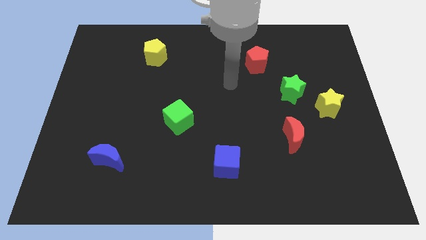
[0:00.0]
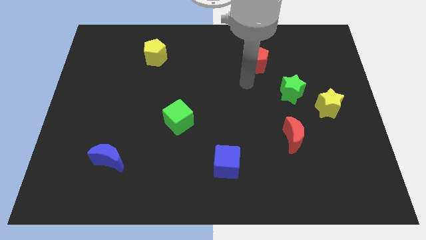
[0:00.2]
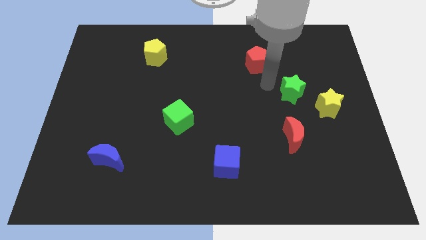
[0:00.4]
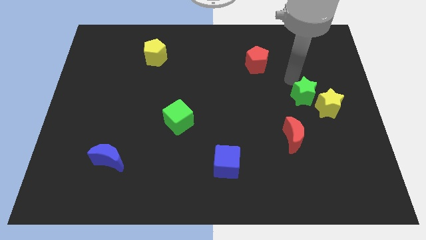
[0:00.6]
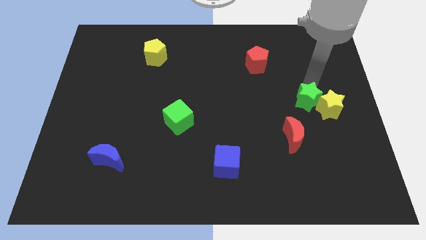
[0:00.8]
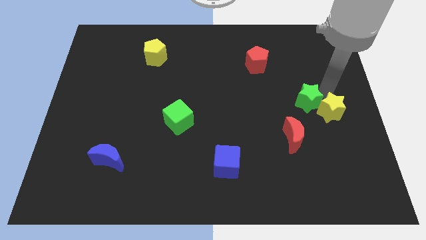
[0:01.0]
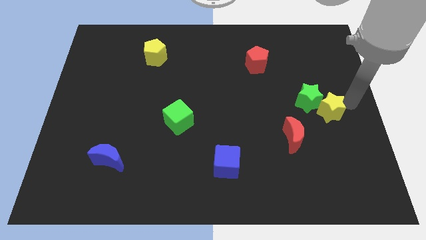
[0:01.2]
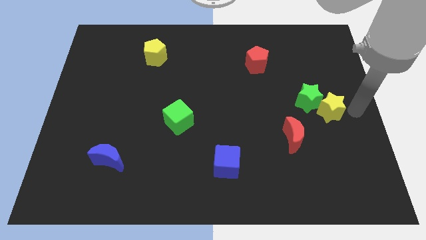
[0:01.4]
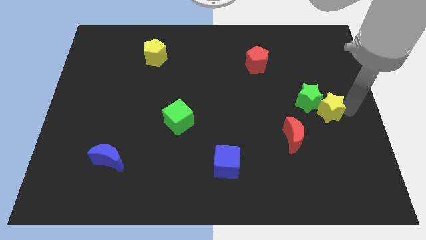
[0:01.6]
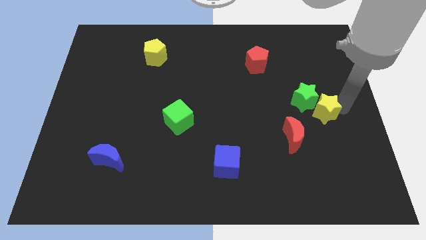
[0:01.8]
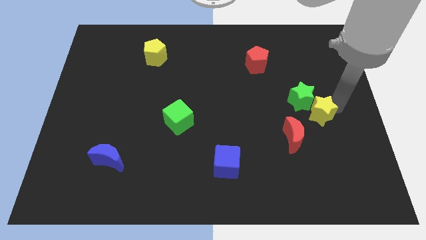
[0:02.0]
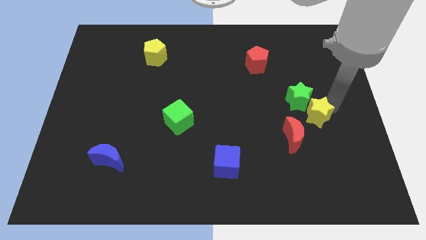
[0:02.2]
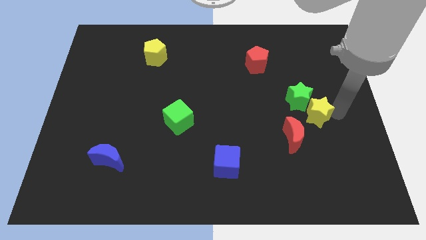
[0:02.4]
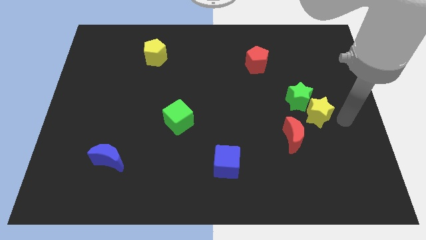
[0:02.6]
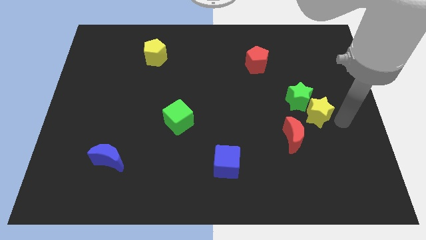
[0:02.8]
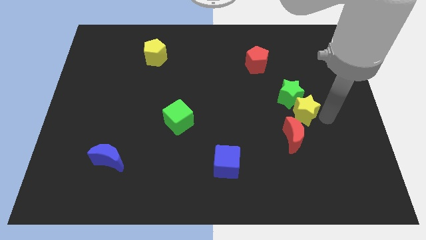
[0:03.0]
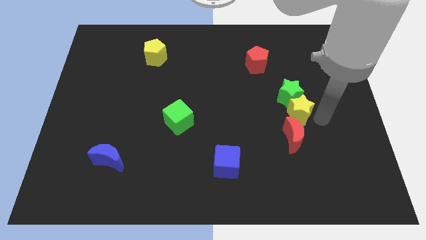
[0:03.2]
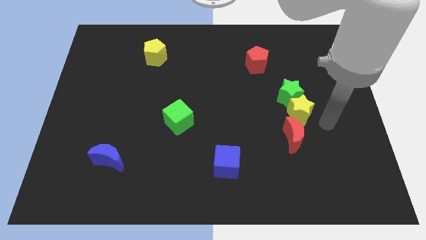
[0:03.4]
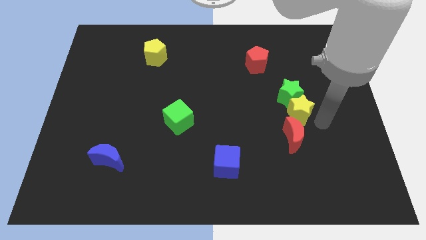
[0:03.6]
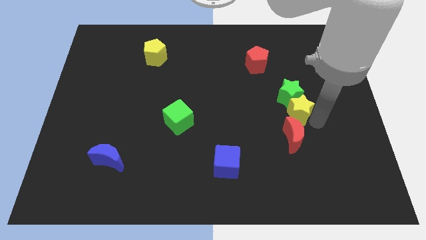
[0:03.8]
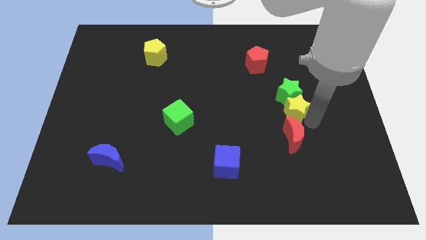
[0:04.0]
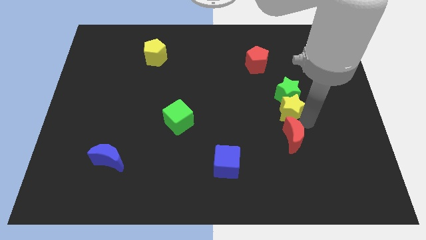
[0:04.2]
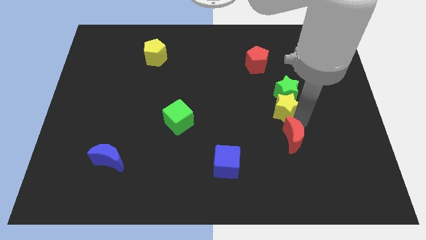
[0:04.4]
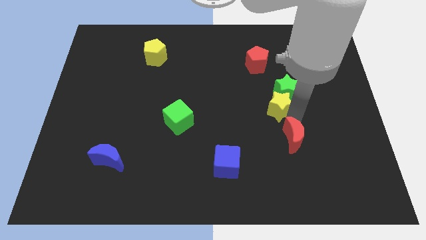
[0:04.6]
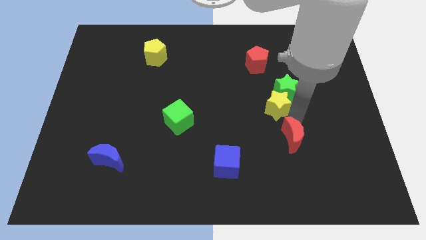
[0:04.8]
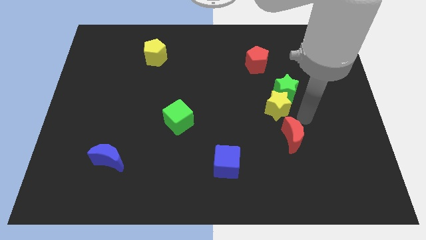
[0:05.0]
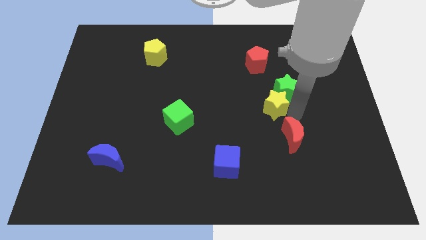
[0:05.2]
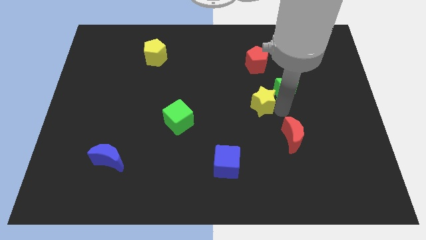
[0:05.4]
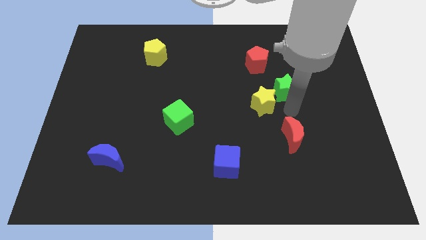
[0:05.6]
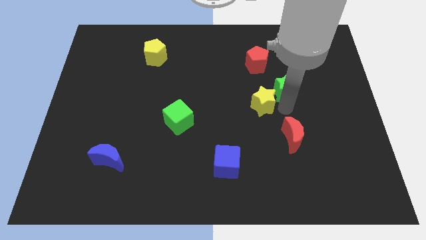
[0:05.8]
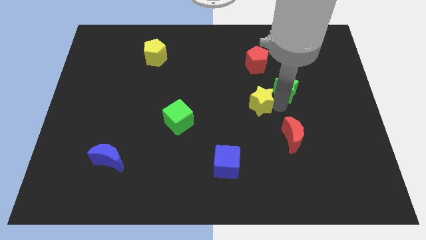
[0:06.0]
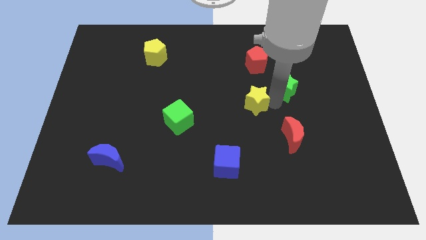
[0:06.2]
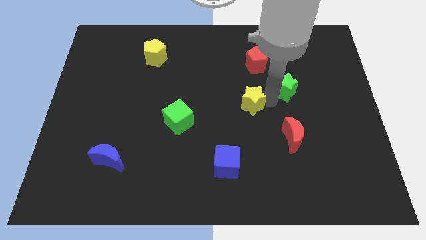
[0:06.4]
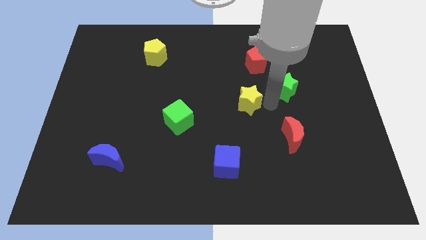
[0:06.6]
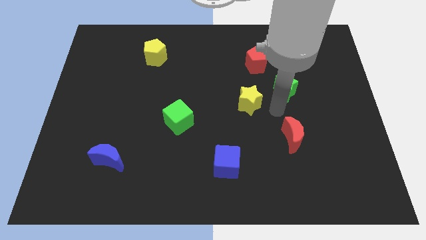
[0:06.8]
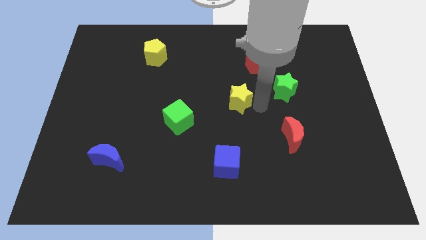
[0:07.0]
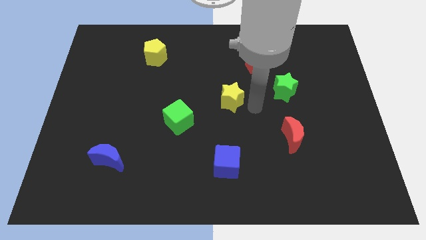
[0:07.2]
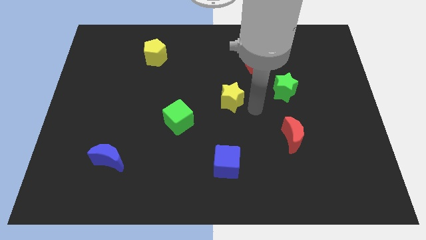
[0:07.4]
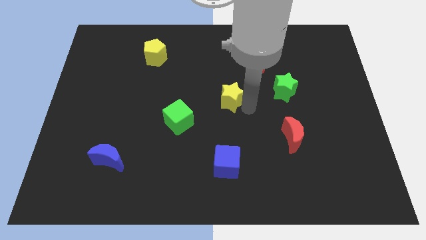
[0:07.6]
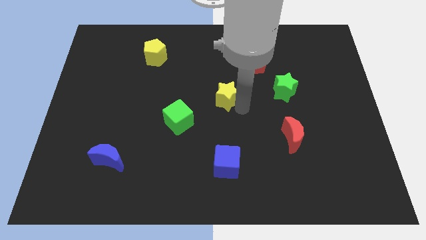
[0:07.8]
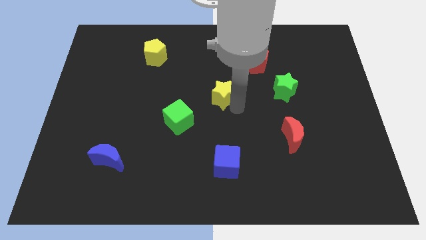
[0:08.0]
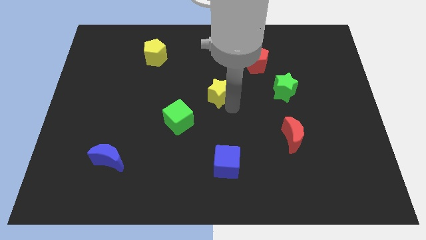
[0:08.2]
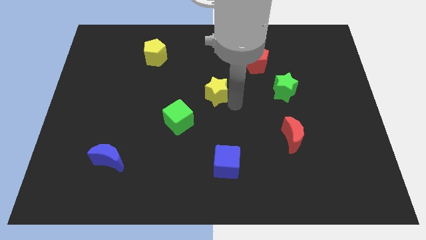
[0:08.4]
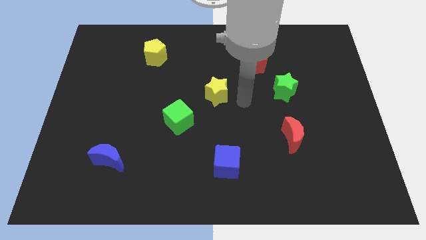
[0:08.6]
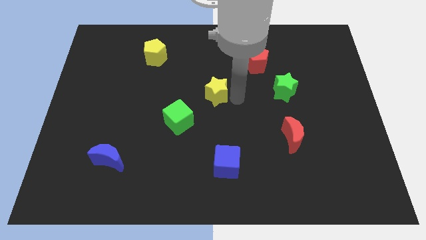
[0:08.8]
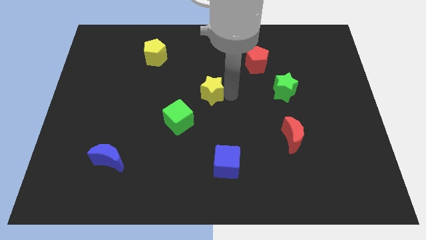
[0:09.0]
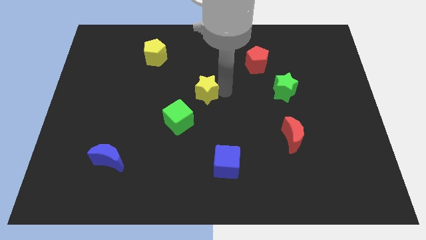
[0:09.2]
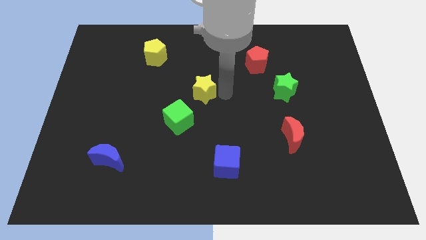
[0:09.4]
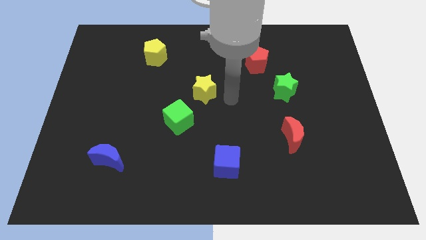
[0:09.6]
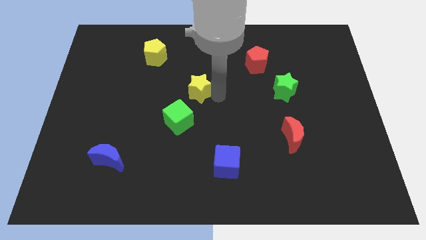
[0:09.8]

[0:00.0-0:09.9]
slide the yellow star to the top of the green cube

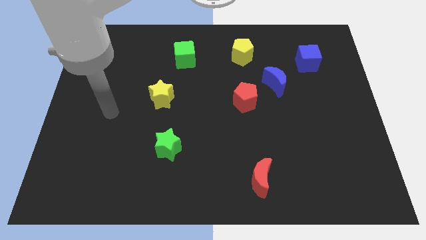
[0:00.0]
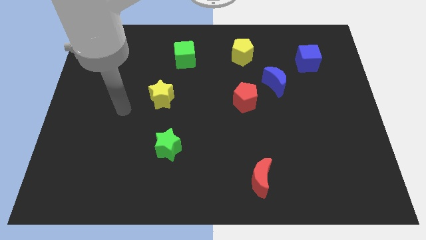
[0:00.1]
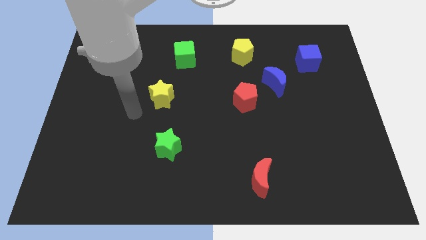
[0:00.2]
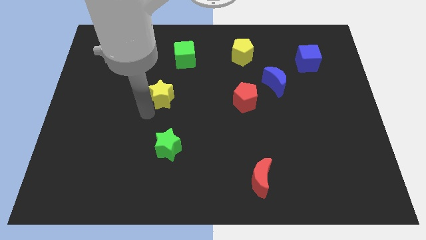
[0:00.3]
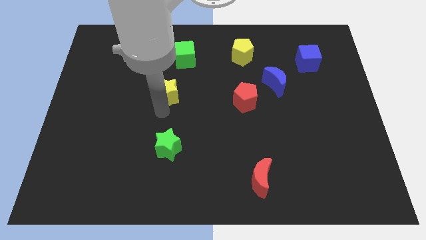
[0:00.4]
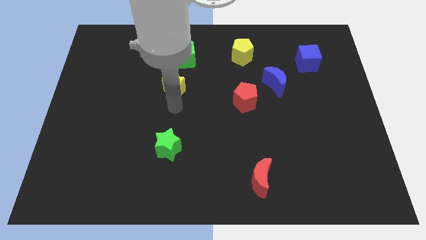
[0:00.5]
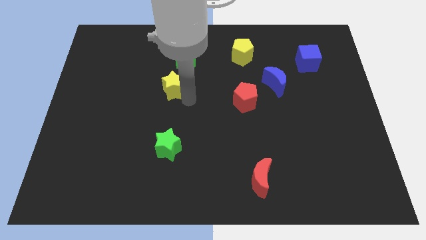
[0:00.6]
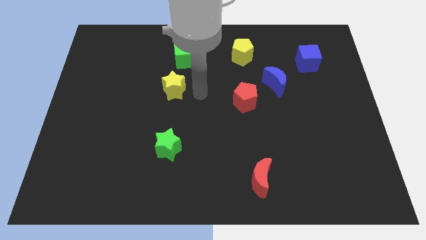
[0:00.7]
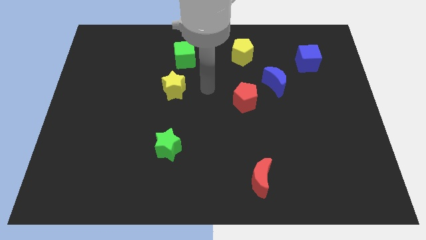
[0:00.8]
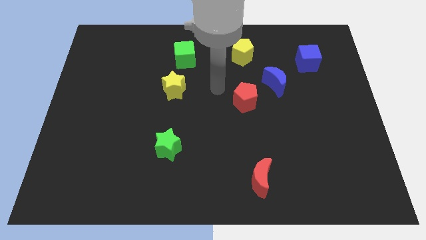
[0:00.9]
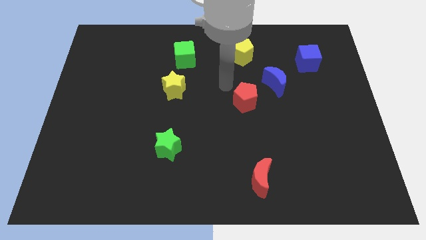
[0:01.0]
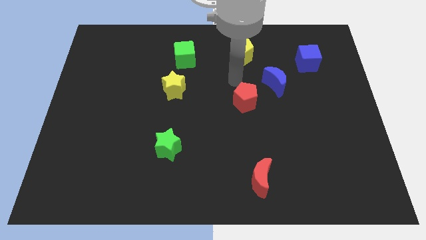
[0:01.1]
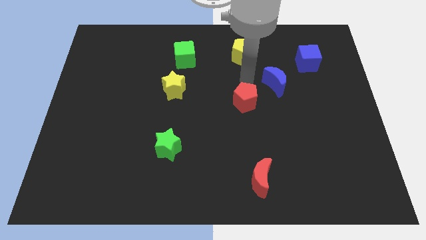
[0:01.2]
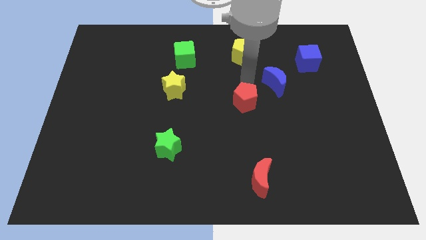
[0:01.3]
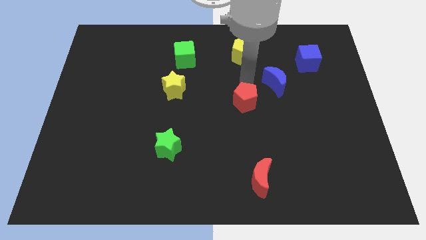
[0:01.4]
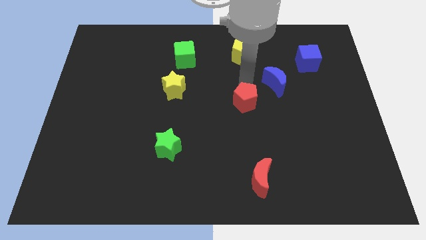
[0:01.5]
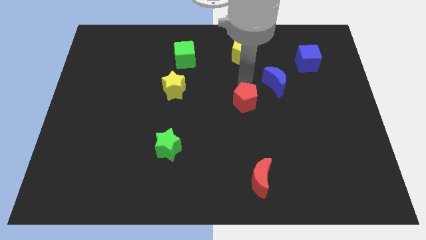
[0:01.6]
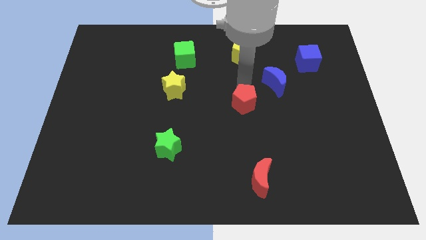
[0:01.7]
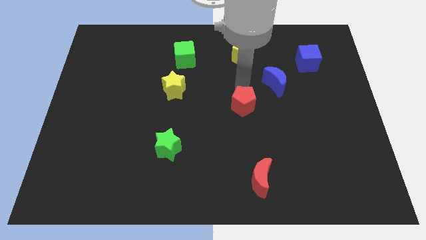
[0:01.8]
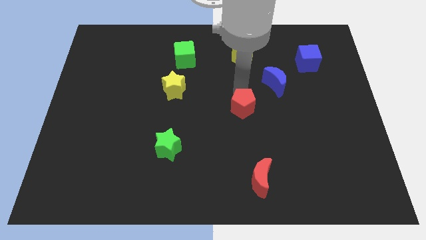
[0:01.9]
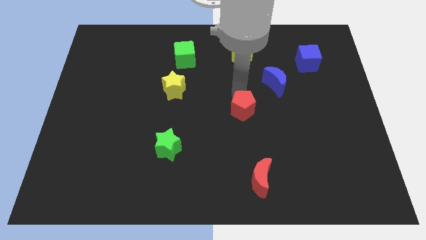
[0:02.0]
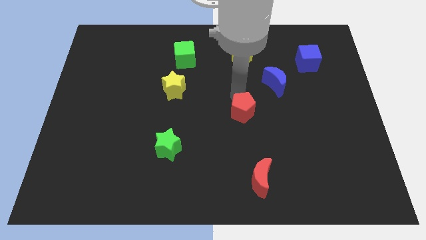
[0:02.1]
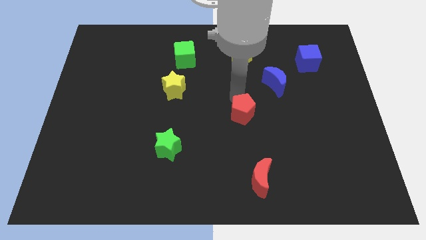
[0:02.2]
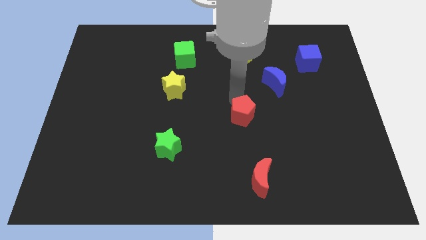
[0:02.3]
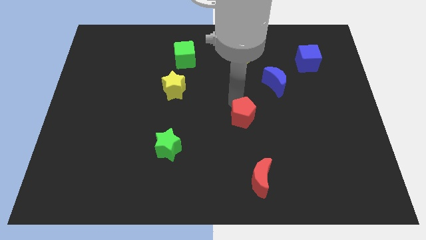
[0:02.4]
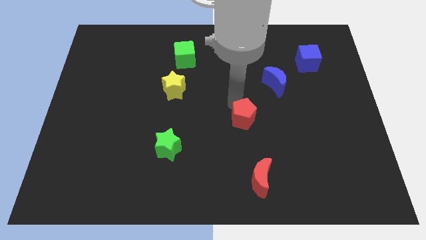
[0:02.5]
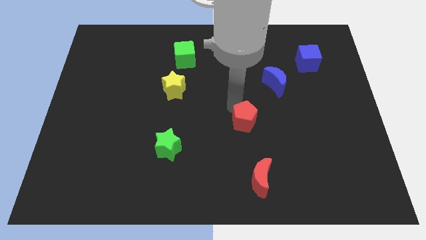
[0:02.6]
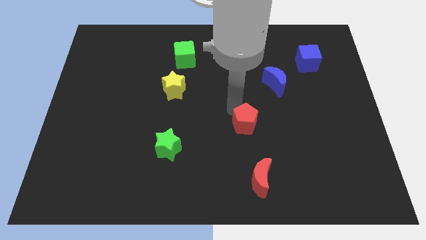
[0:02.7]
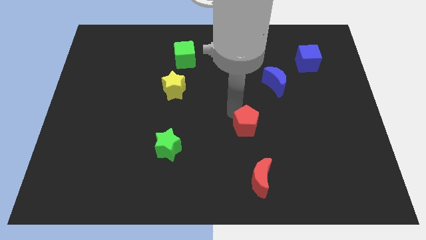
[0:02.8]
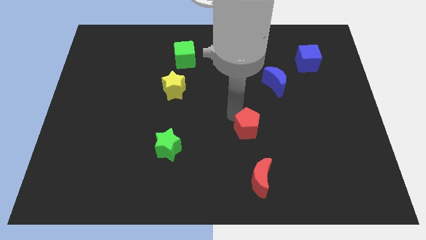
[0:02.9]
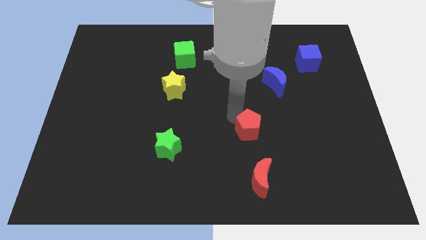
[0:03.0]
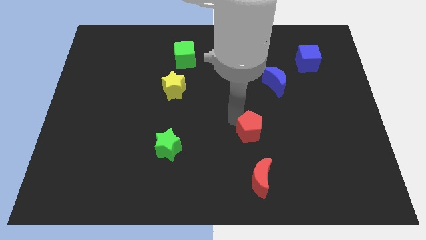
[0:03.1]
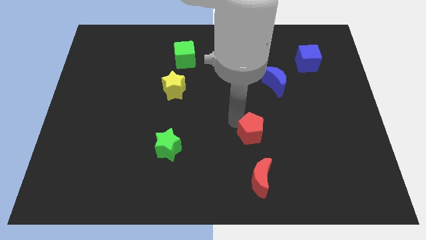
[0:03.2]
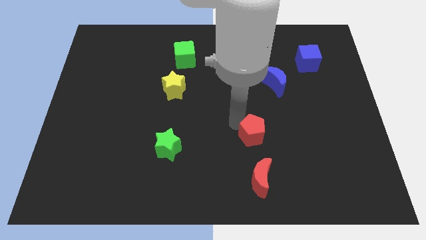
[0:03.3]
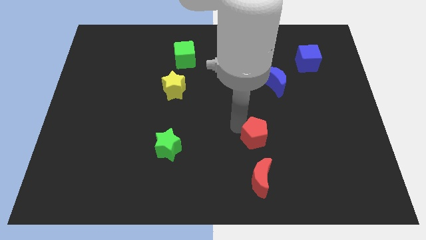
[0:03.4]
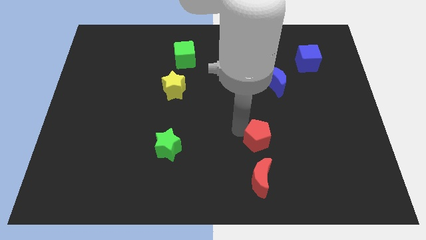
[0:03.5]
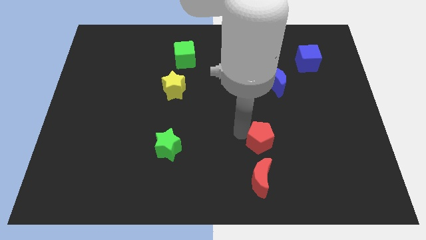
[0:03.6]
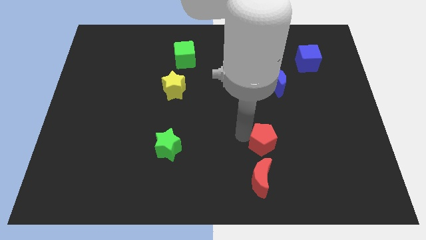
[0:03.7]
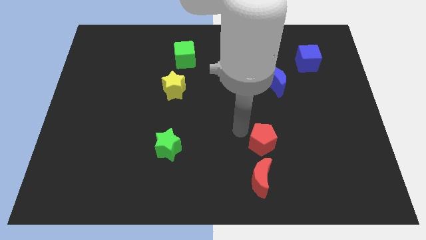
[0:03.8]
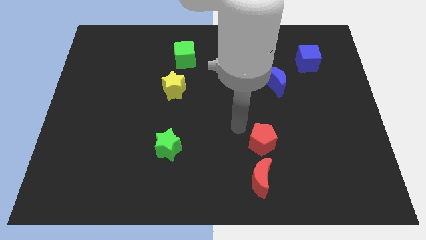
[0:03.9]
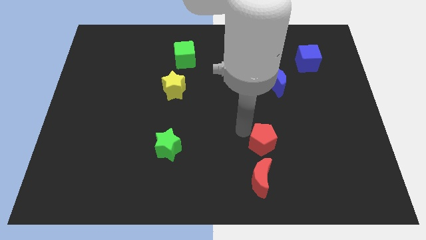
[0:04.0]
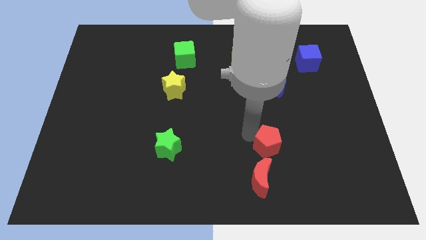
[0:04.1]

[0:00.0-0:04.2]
put the red pentagon to the top right side of the red moon
